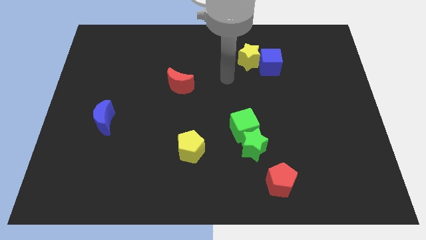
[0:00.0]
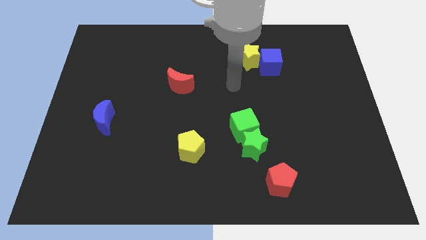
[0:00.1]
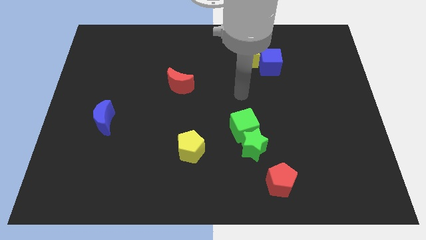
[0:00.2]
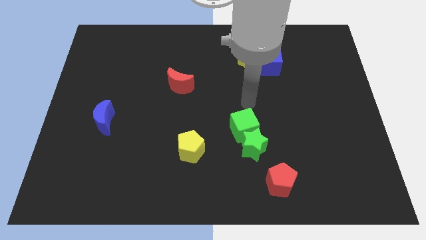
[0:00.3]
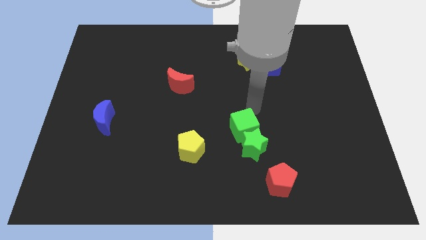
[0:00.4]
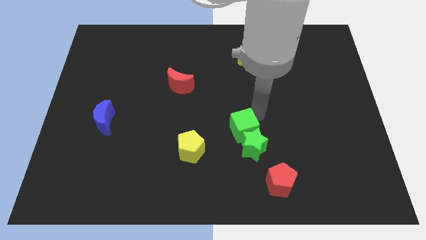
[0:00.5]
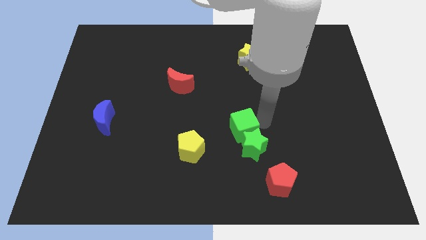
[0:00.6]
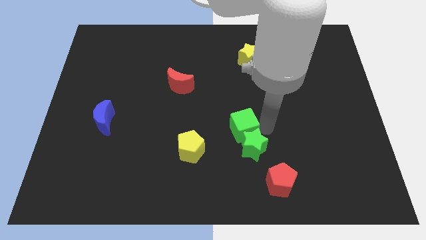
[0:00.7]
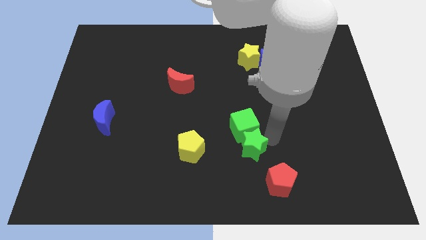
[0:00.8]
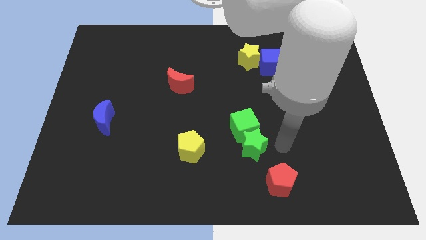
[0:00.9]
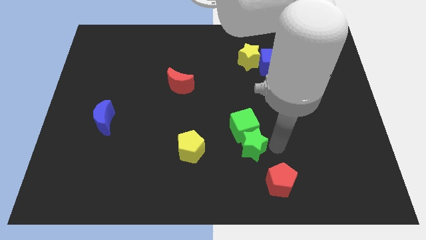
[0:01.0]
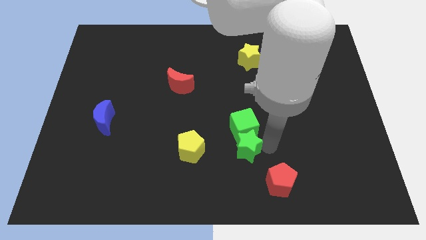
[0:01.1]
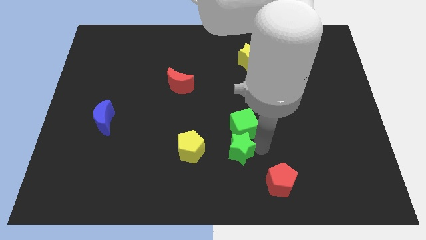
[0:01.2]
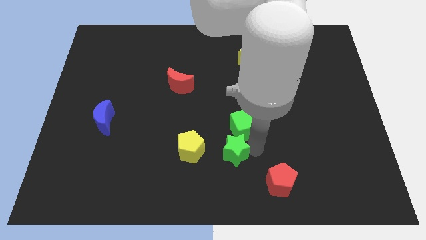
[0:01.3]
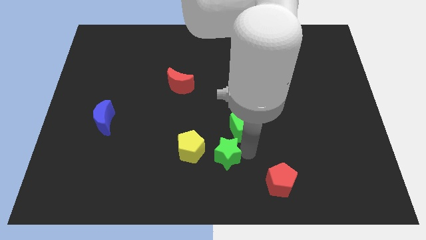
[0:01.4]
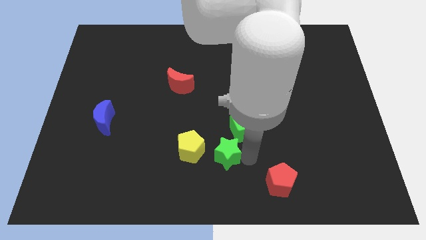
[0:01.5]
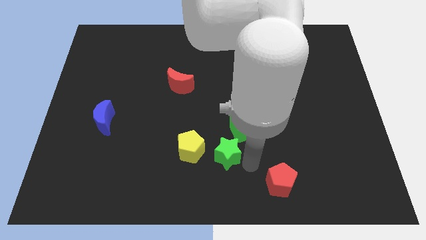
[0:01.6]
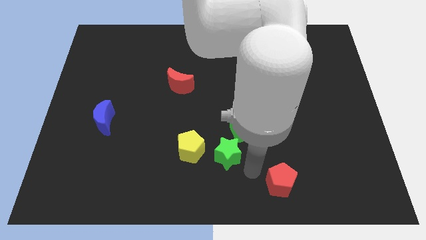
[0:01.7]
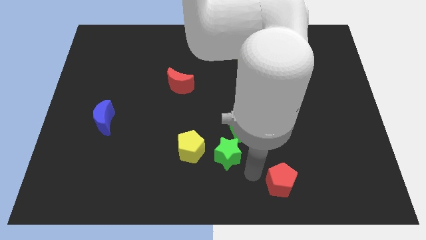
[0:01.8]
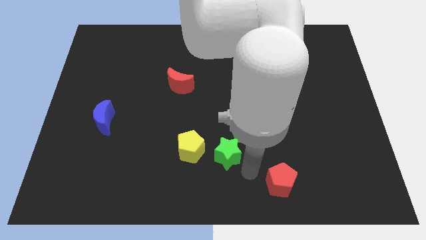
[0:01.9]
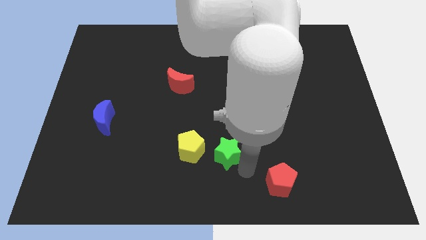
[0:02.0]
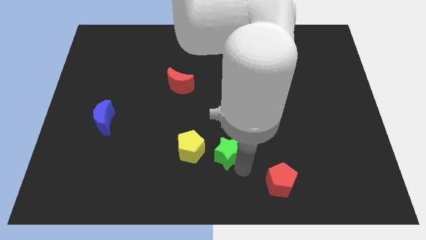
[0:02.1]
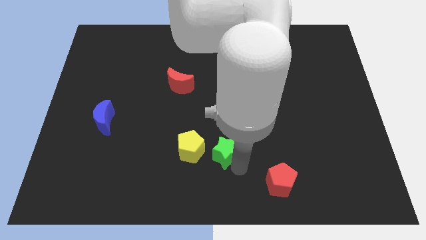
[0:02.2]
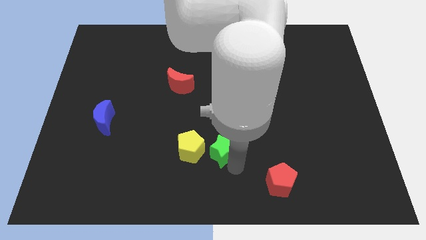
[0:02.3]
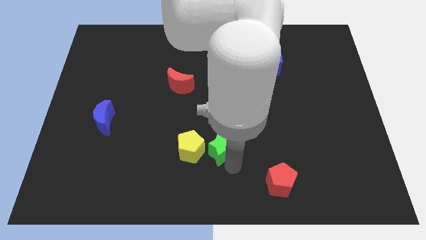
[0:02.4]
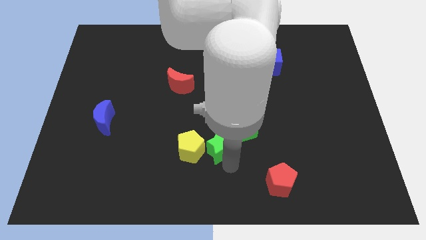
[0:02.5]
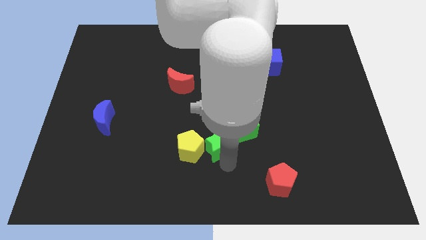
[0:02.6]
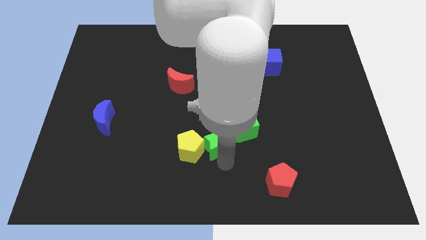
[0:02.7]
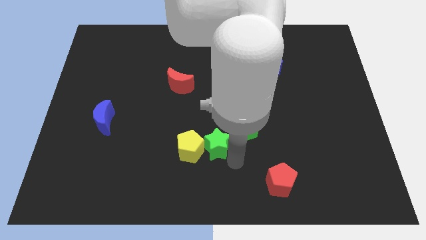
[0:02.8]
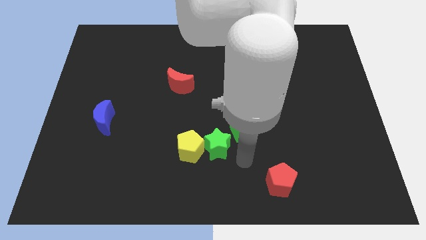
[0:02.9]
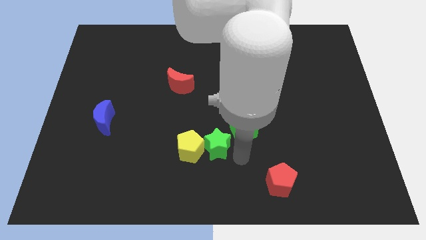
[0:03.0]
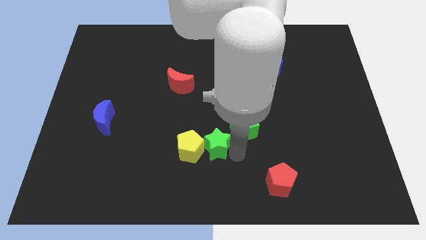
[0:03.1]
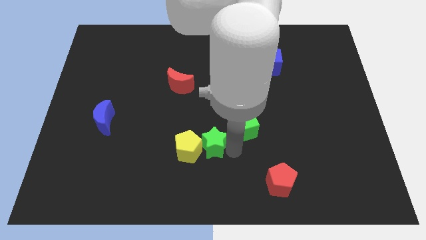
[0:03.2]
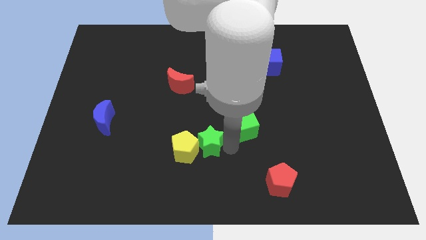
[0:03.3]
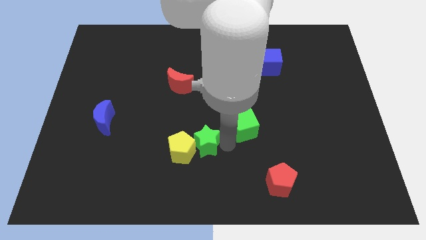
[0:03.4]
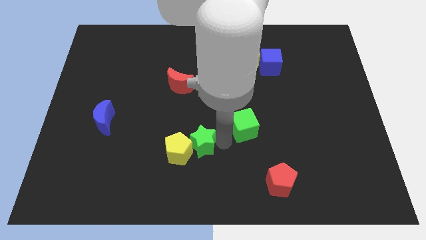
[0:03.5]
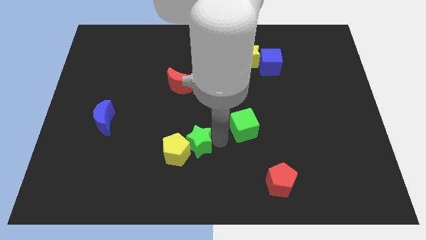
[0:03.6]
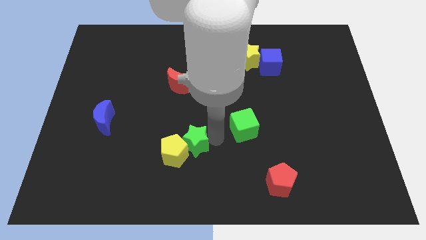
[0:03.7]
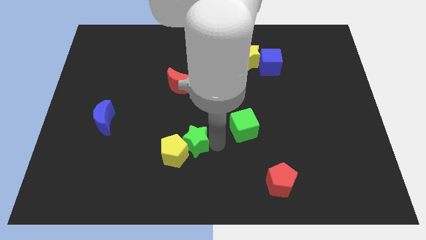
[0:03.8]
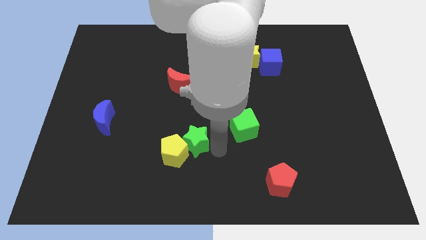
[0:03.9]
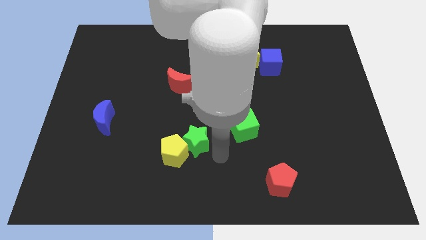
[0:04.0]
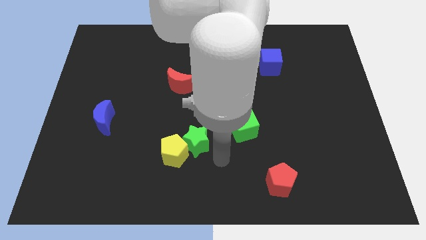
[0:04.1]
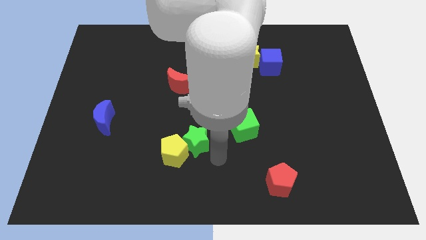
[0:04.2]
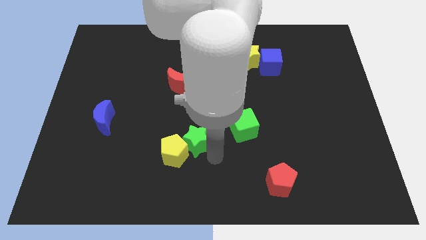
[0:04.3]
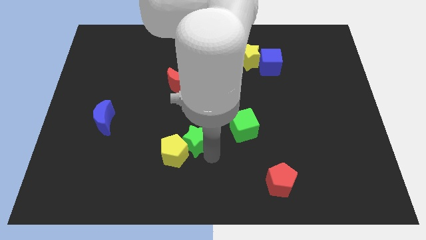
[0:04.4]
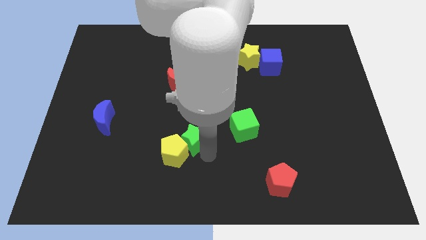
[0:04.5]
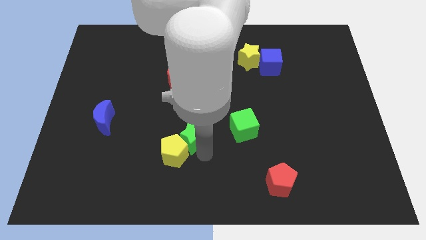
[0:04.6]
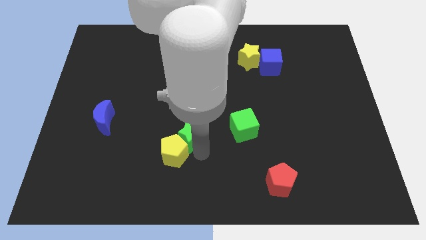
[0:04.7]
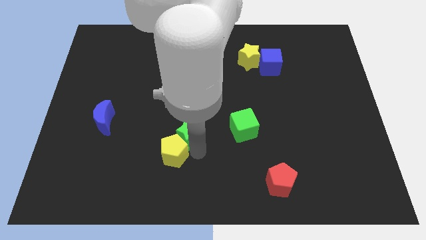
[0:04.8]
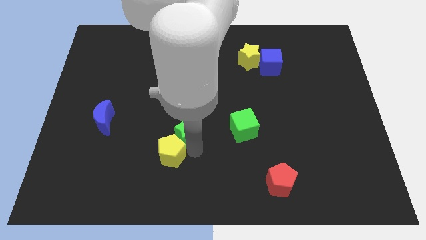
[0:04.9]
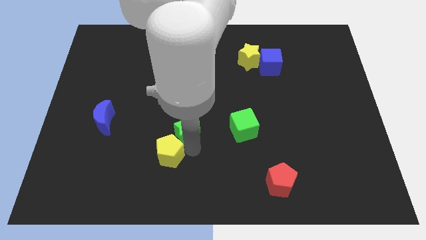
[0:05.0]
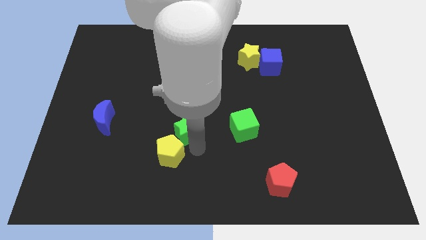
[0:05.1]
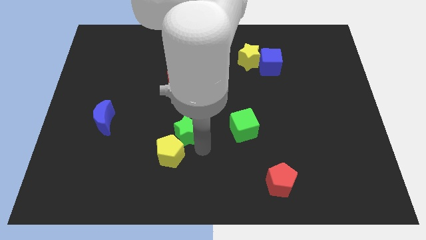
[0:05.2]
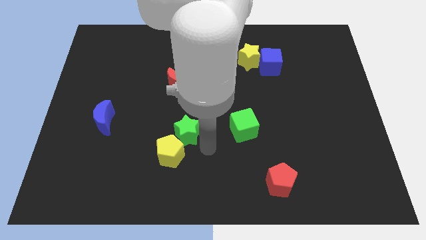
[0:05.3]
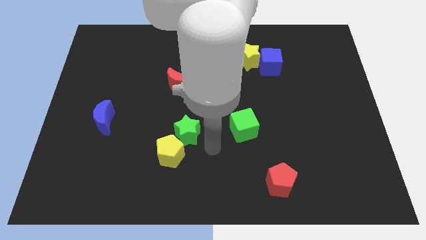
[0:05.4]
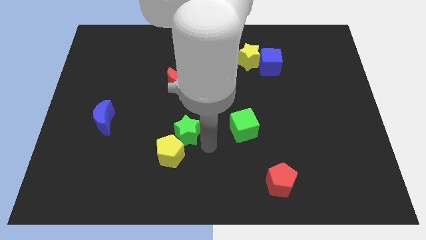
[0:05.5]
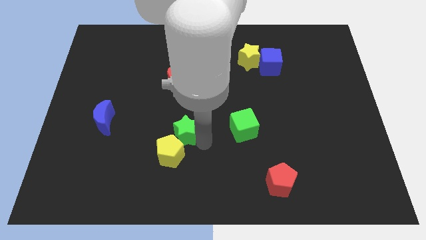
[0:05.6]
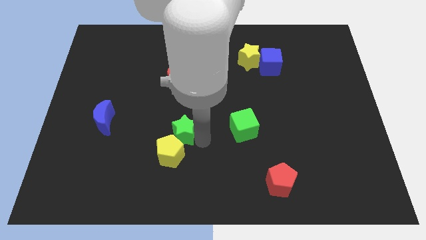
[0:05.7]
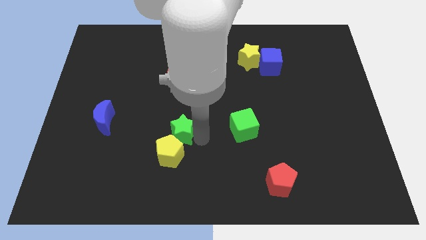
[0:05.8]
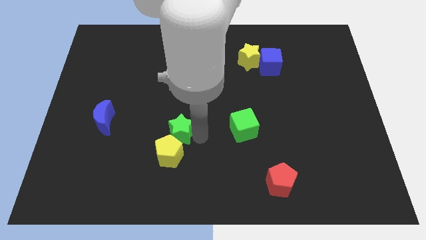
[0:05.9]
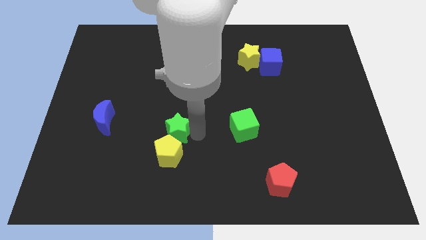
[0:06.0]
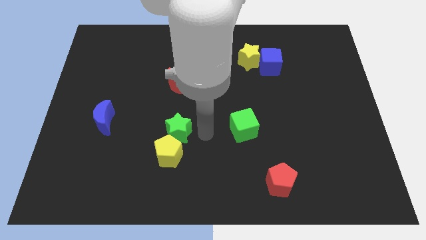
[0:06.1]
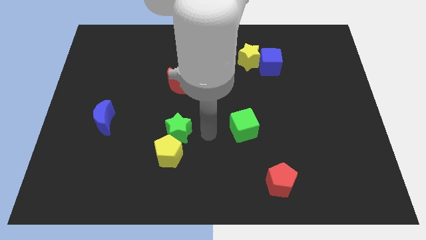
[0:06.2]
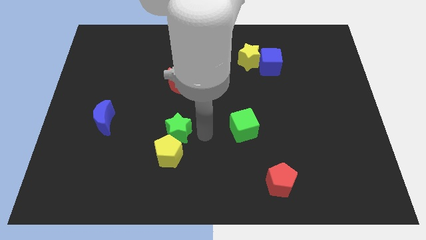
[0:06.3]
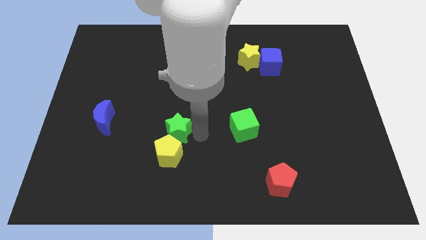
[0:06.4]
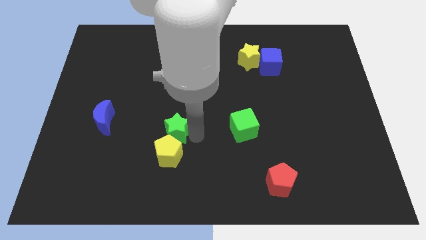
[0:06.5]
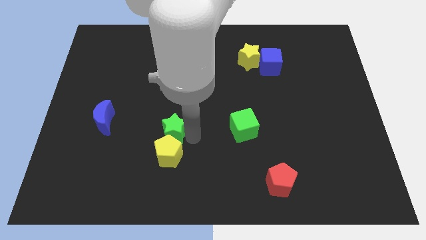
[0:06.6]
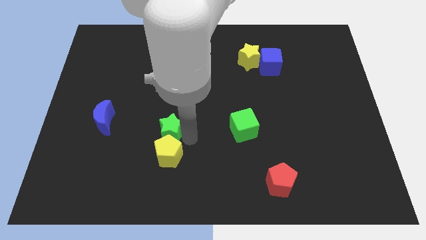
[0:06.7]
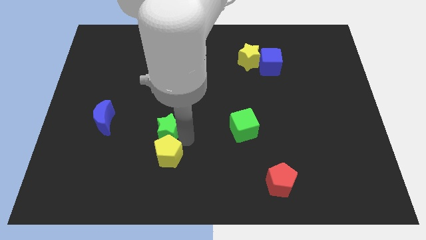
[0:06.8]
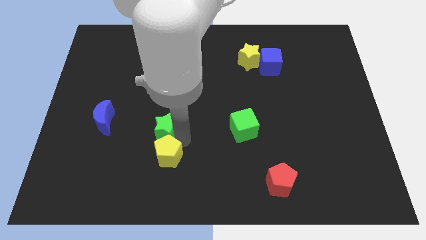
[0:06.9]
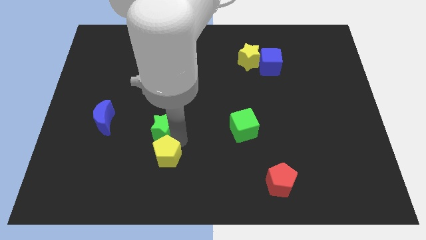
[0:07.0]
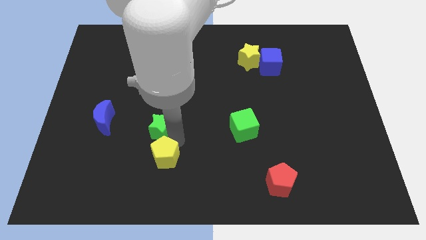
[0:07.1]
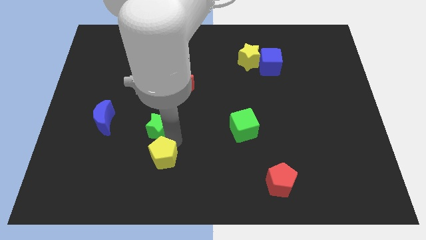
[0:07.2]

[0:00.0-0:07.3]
slide the green star left

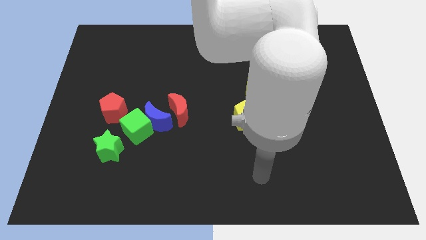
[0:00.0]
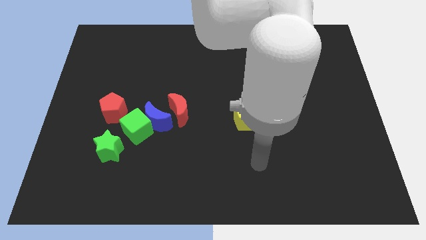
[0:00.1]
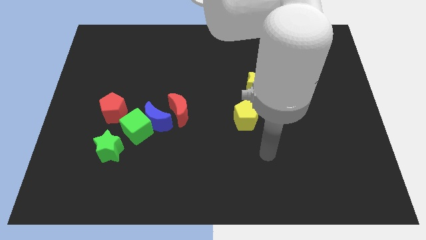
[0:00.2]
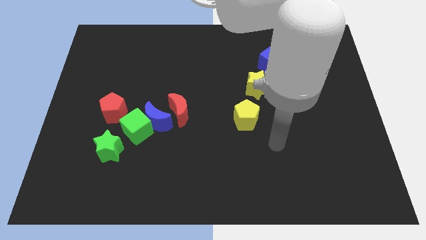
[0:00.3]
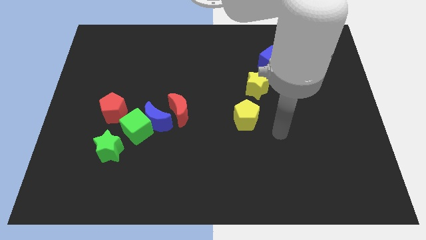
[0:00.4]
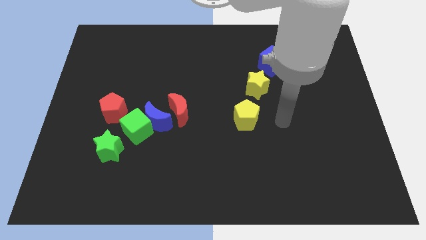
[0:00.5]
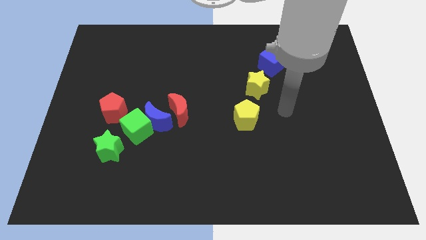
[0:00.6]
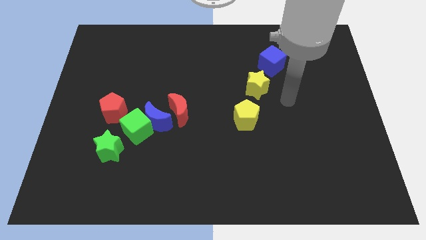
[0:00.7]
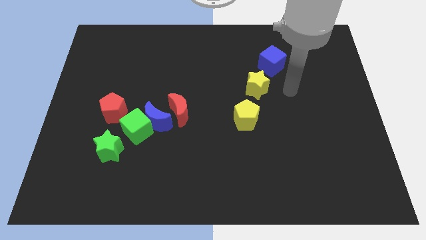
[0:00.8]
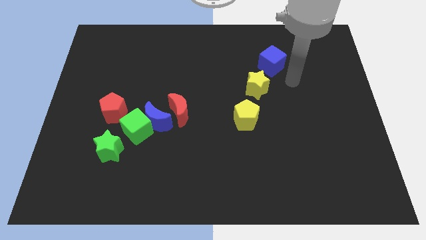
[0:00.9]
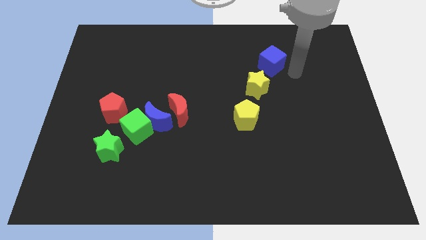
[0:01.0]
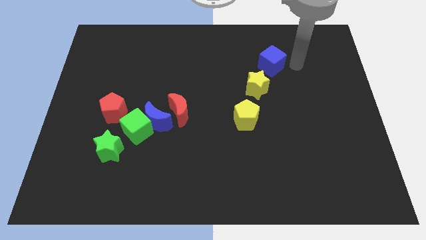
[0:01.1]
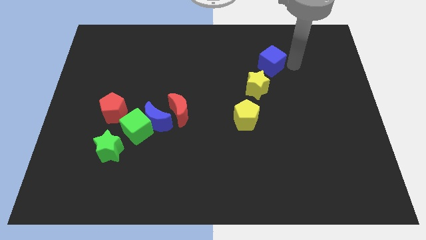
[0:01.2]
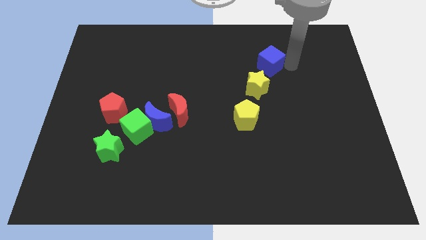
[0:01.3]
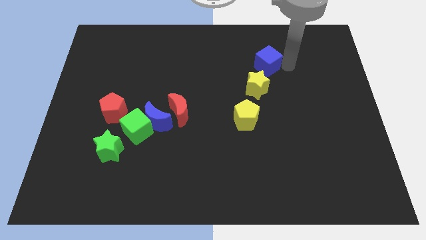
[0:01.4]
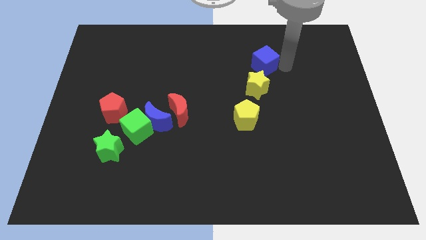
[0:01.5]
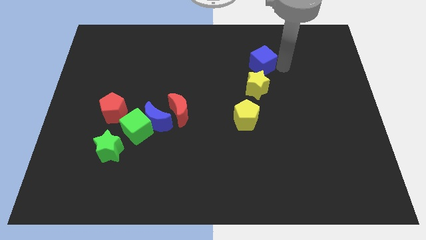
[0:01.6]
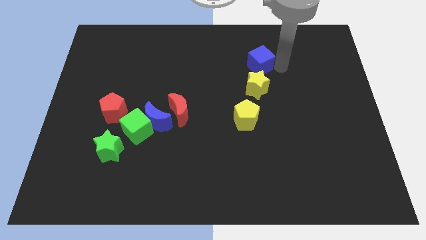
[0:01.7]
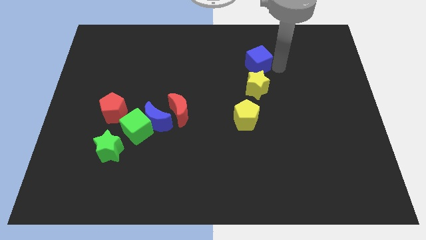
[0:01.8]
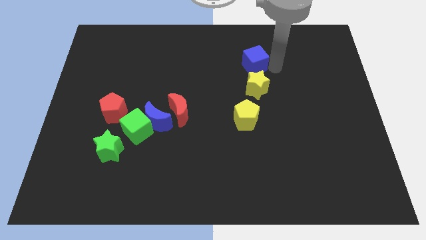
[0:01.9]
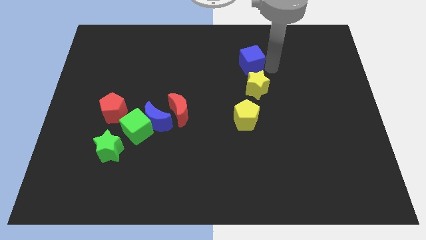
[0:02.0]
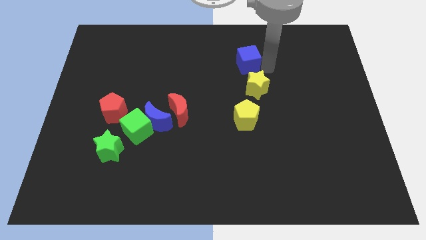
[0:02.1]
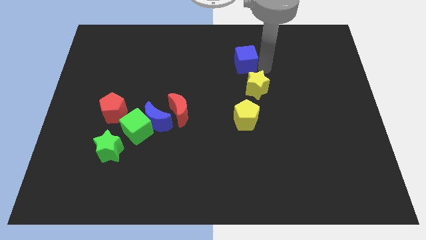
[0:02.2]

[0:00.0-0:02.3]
slide the blue cube a bit left
